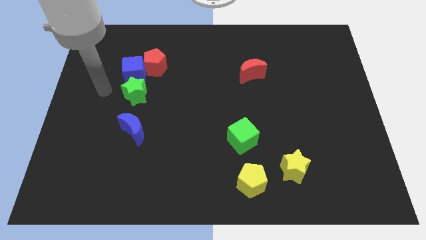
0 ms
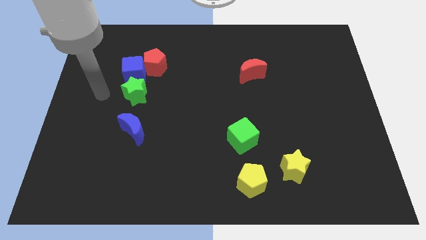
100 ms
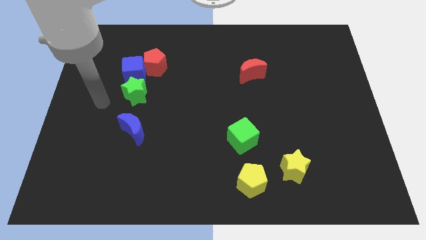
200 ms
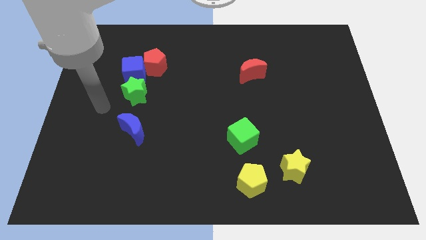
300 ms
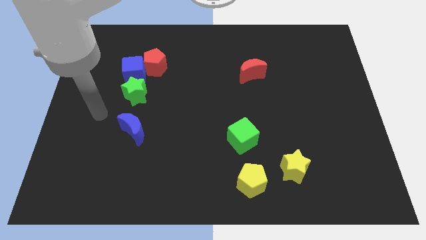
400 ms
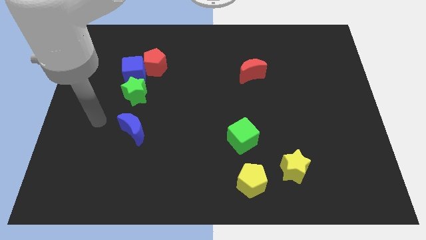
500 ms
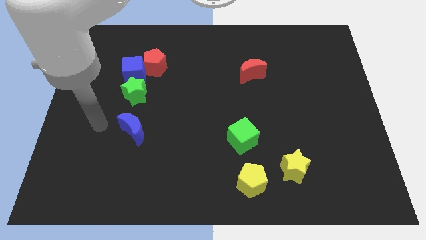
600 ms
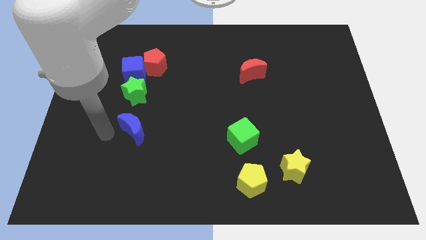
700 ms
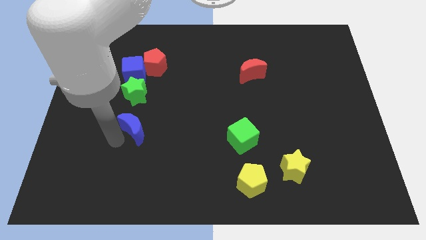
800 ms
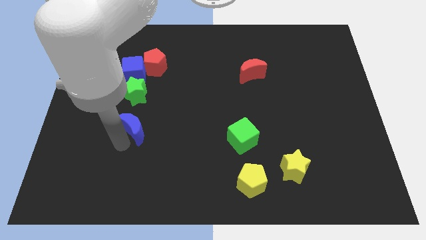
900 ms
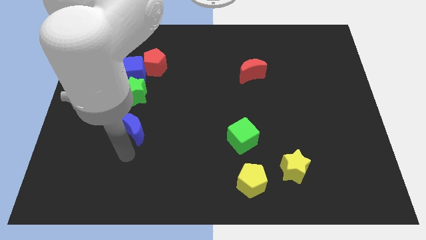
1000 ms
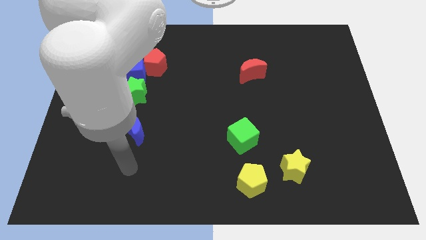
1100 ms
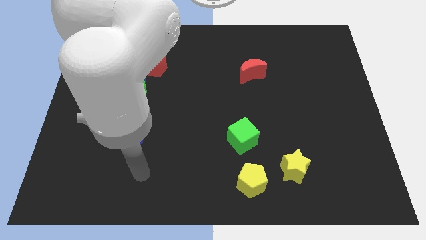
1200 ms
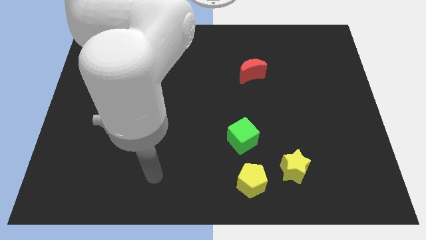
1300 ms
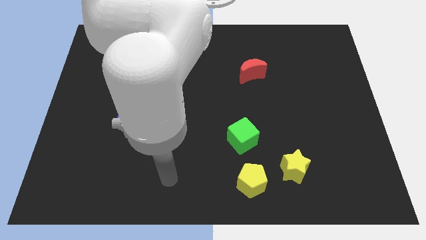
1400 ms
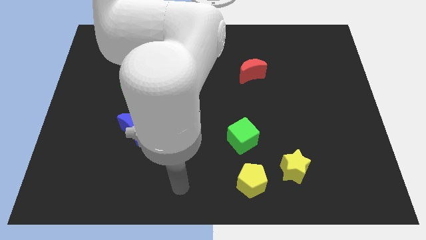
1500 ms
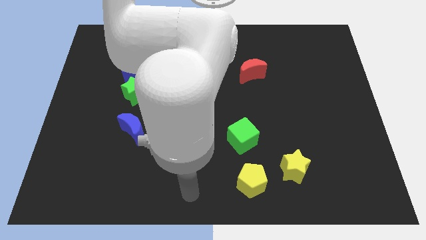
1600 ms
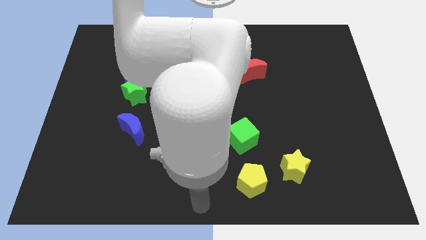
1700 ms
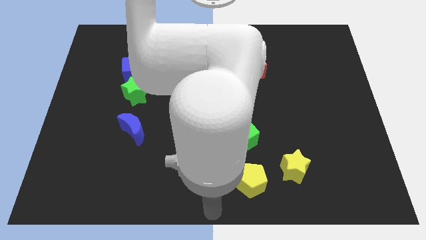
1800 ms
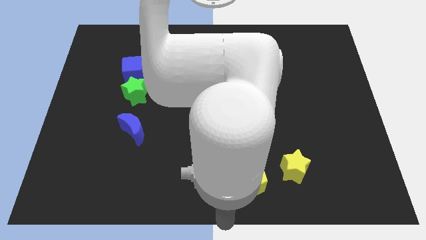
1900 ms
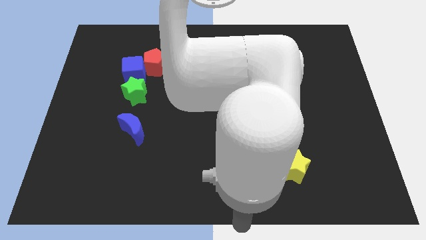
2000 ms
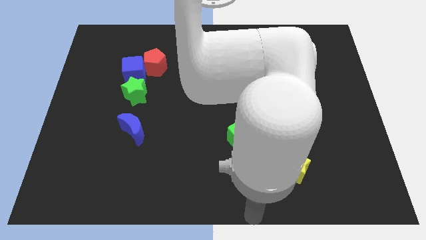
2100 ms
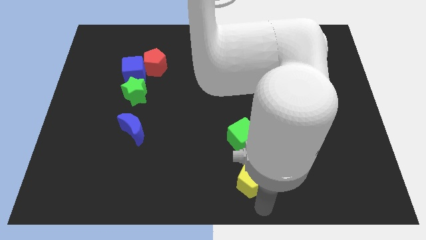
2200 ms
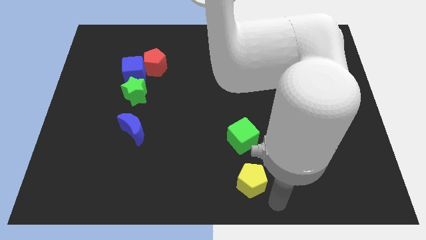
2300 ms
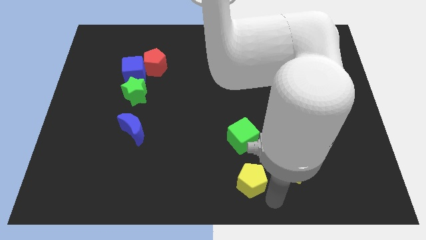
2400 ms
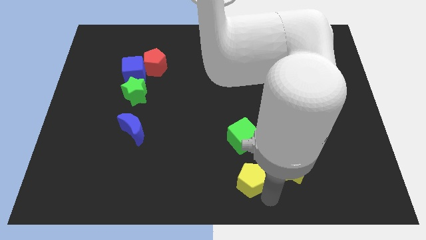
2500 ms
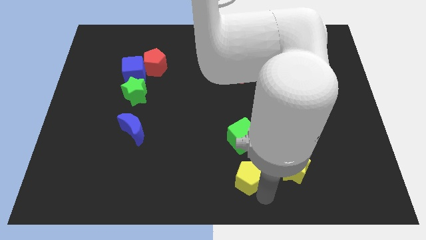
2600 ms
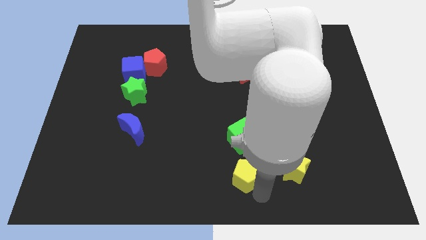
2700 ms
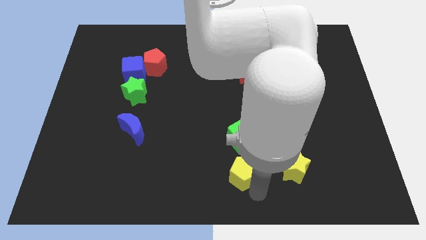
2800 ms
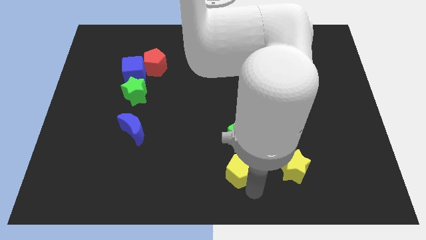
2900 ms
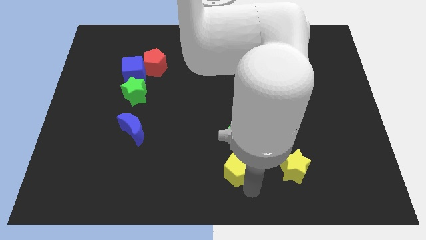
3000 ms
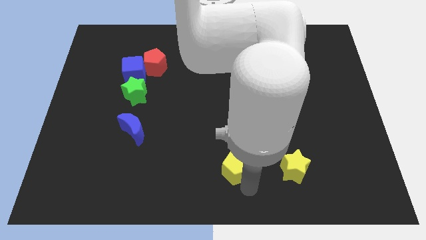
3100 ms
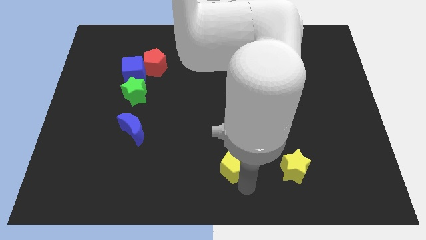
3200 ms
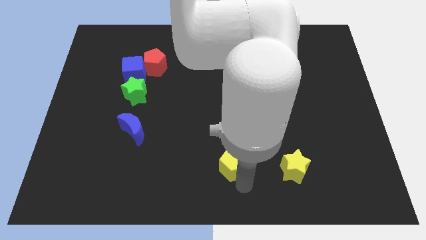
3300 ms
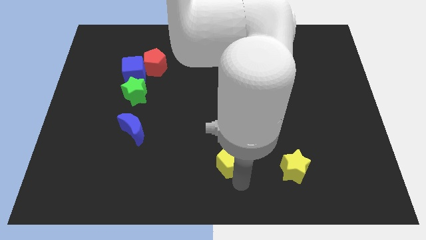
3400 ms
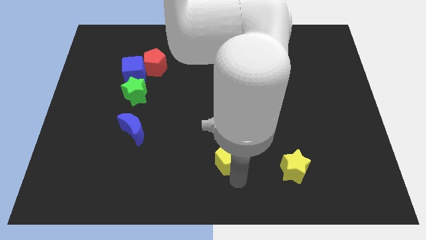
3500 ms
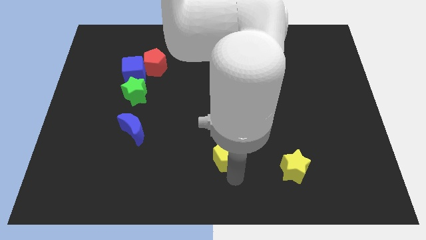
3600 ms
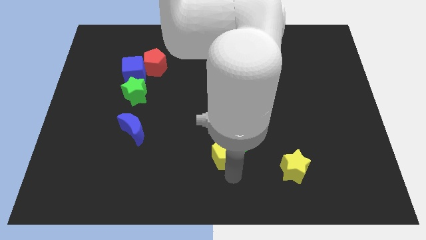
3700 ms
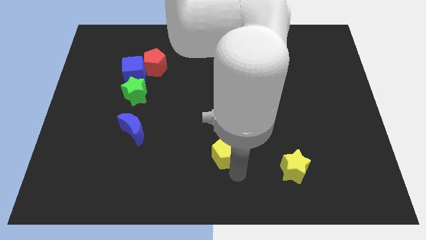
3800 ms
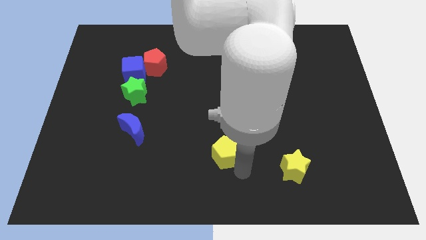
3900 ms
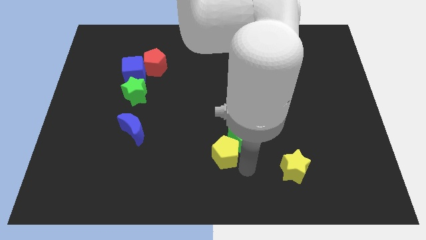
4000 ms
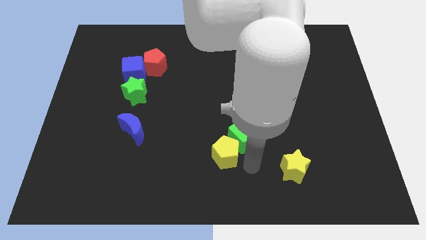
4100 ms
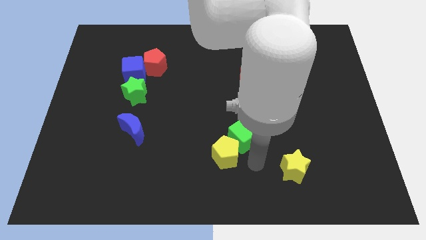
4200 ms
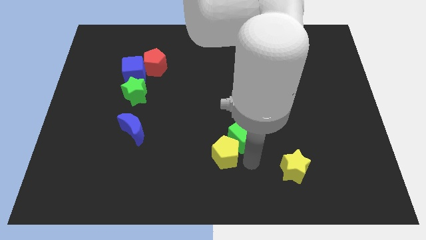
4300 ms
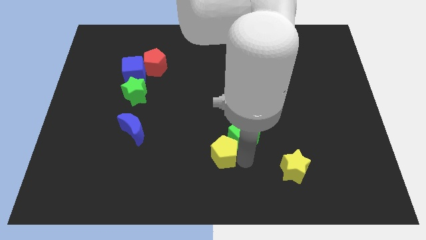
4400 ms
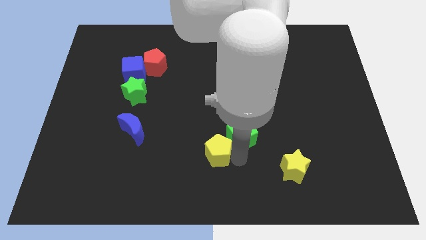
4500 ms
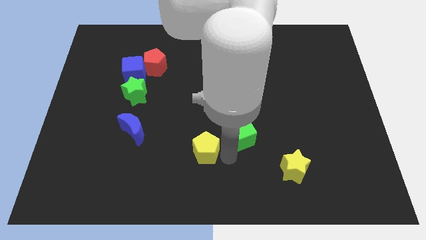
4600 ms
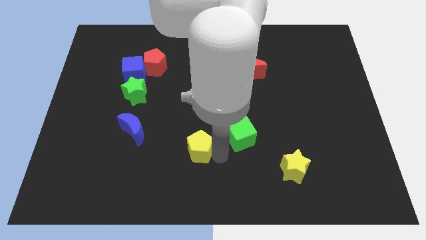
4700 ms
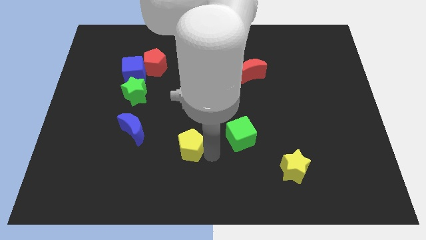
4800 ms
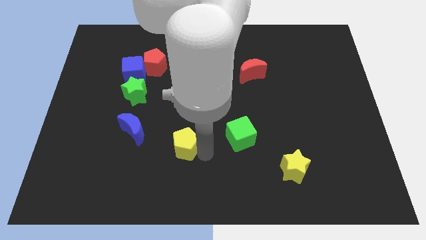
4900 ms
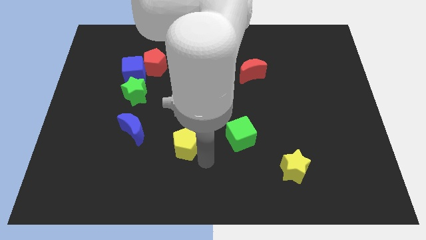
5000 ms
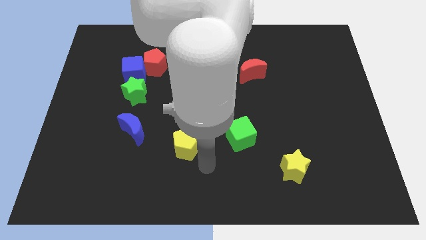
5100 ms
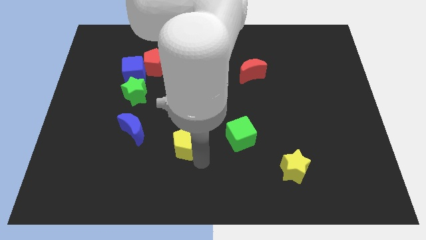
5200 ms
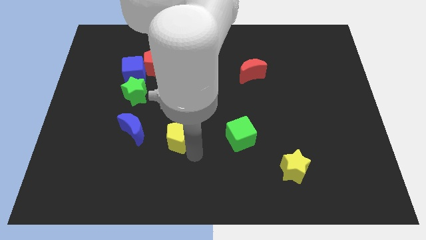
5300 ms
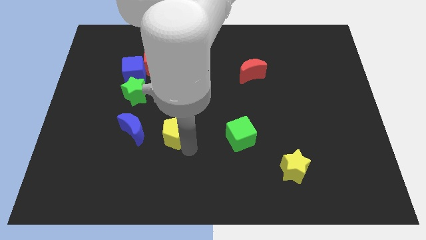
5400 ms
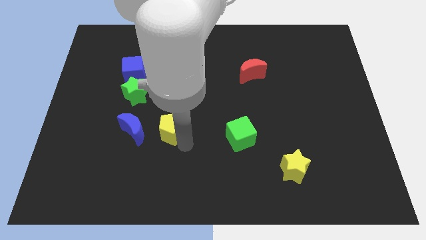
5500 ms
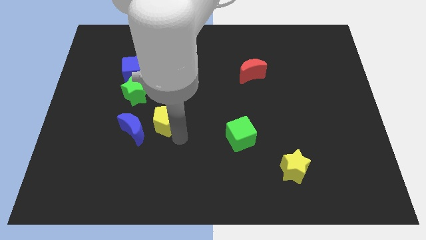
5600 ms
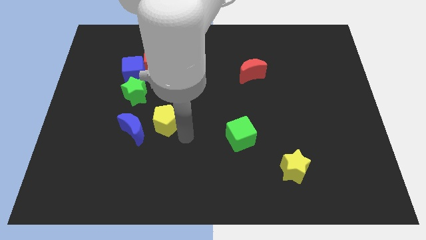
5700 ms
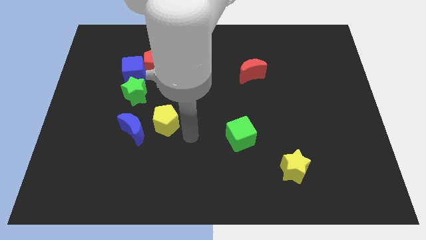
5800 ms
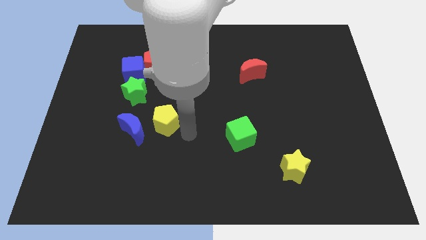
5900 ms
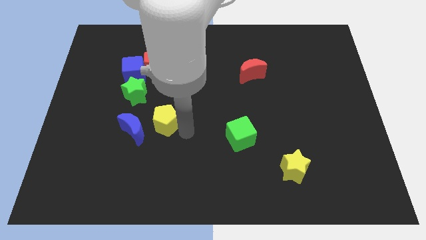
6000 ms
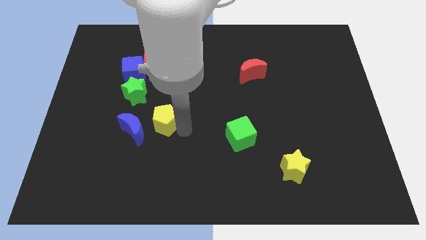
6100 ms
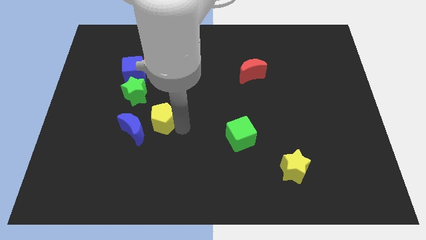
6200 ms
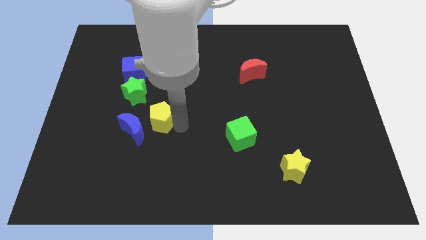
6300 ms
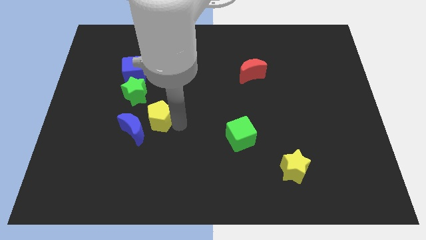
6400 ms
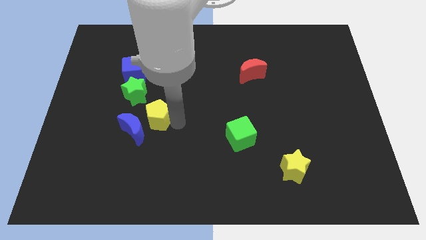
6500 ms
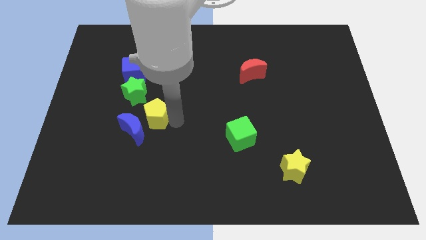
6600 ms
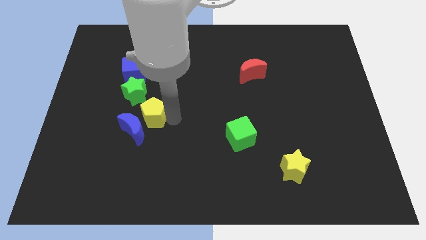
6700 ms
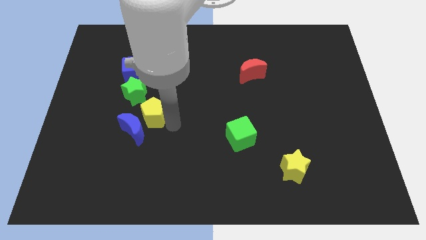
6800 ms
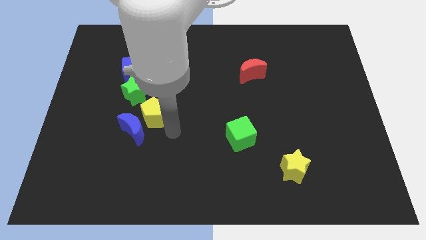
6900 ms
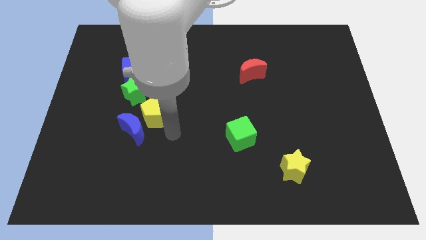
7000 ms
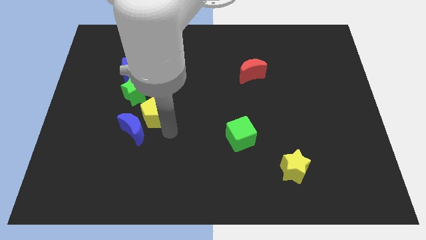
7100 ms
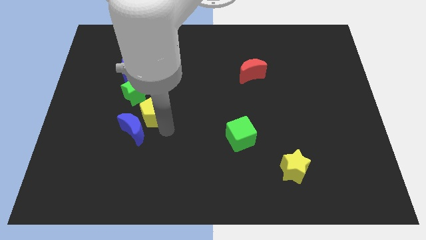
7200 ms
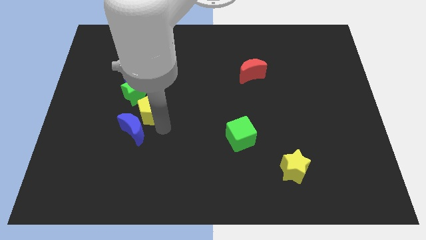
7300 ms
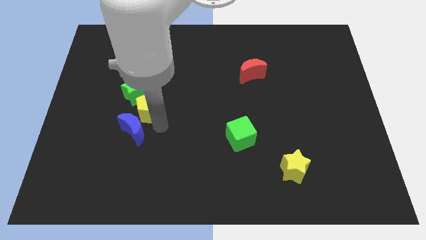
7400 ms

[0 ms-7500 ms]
push the yellow pentagon next to the green star

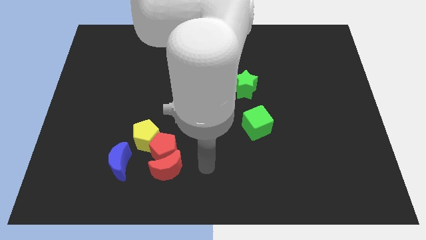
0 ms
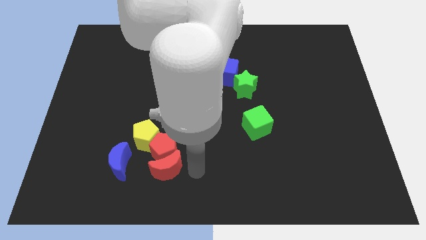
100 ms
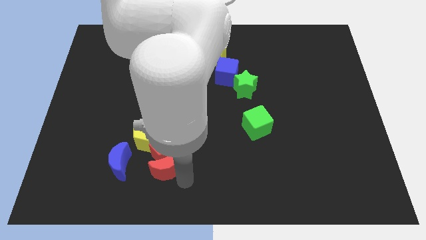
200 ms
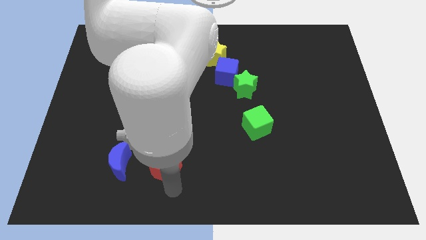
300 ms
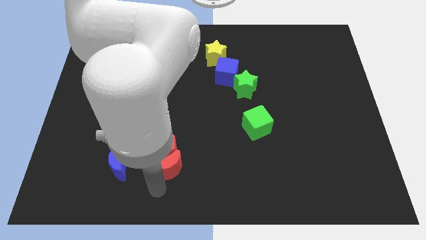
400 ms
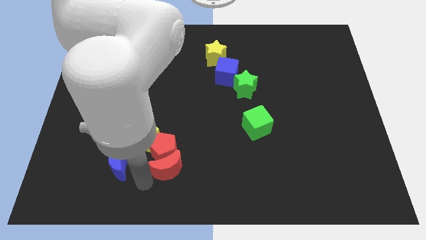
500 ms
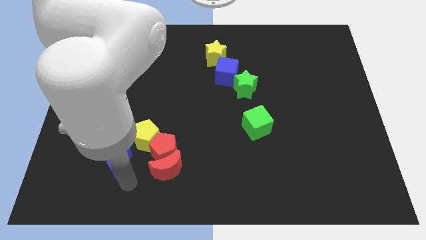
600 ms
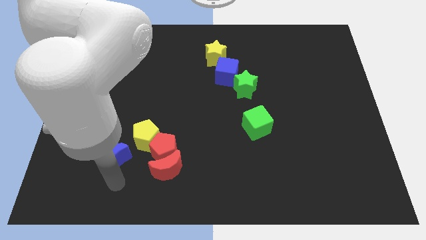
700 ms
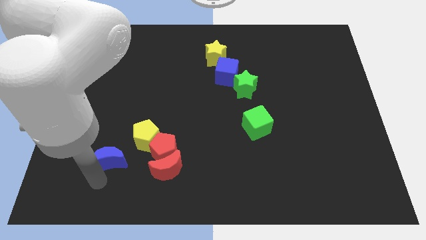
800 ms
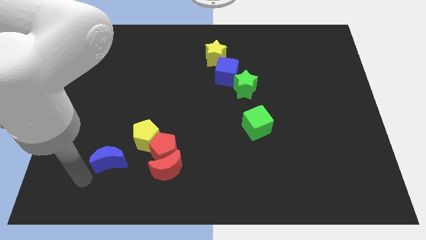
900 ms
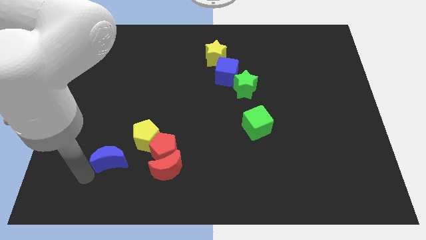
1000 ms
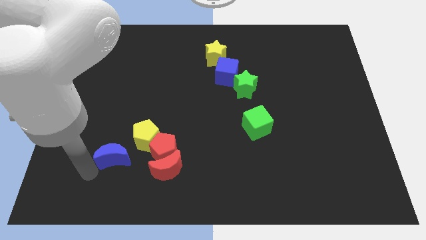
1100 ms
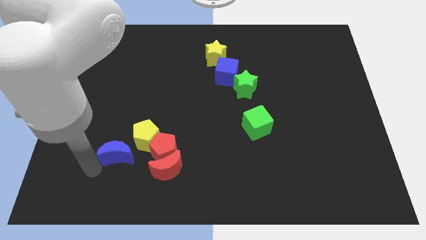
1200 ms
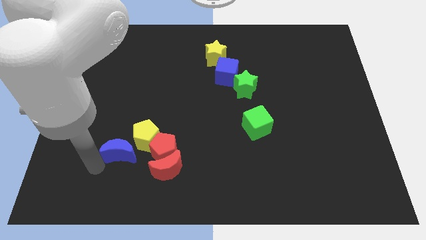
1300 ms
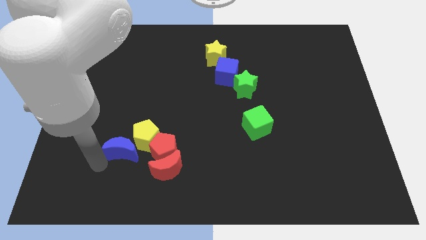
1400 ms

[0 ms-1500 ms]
put the blue moon next to the yellow pentagon
